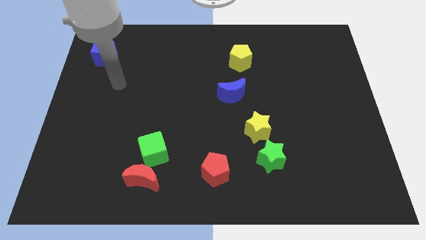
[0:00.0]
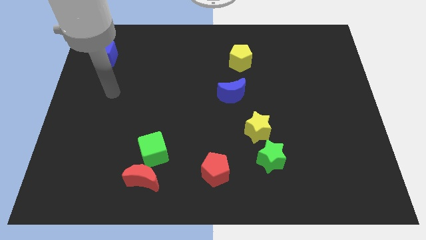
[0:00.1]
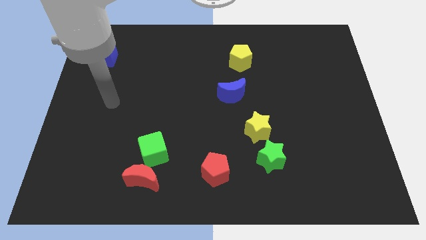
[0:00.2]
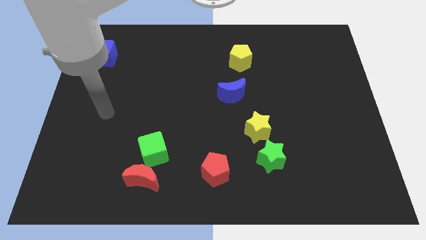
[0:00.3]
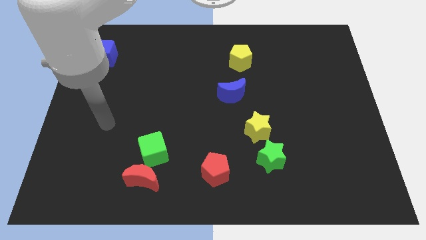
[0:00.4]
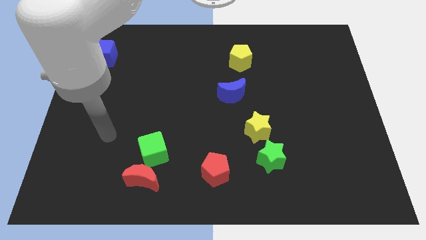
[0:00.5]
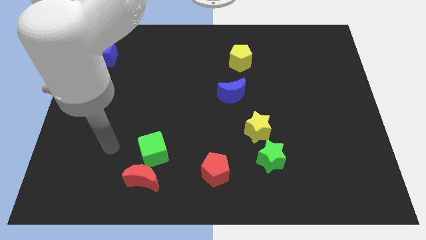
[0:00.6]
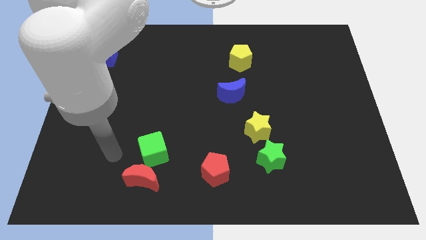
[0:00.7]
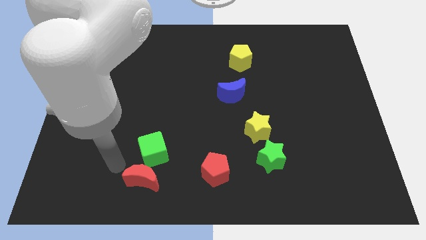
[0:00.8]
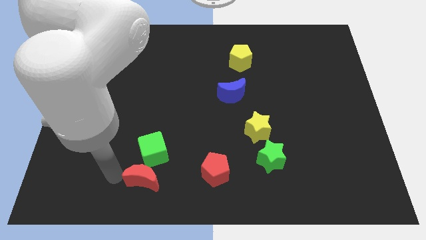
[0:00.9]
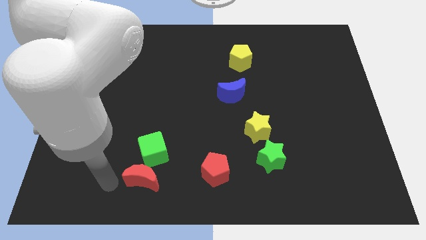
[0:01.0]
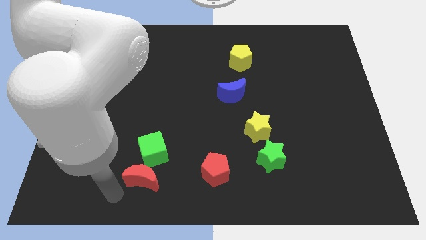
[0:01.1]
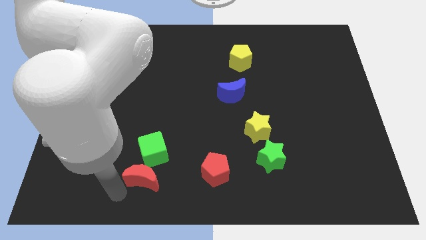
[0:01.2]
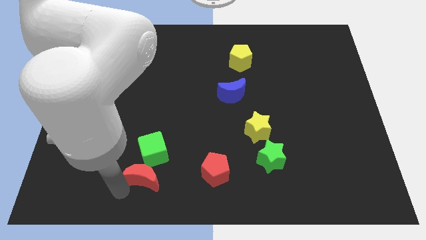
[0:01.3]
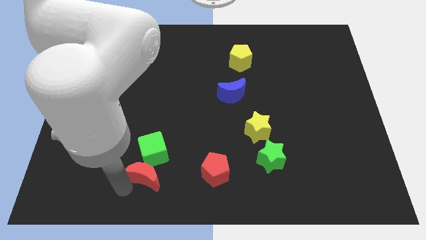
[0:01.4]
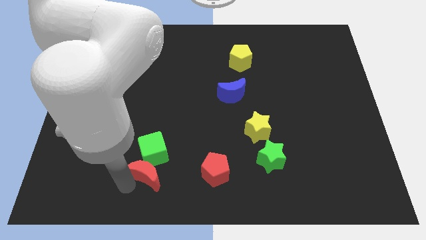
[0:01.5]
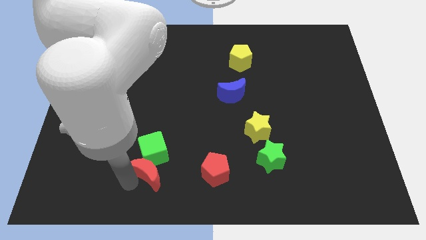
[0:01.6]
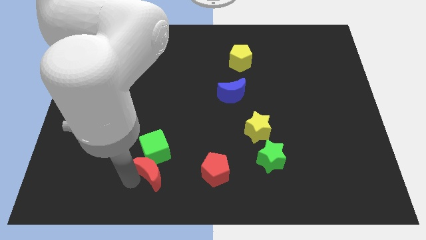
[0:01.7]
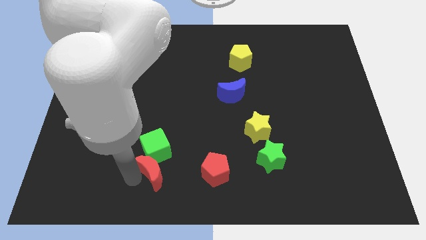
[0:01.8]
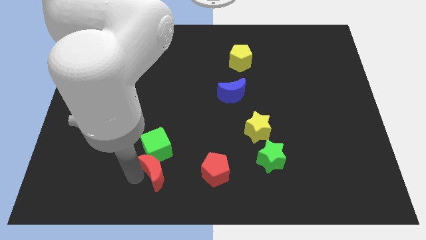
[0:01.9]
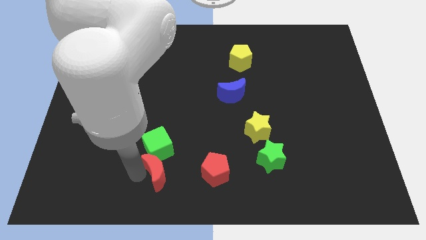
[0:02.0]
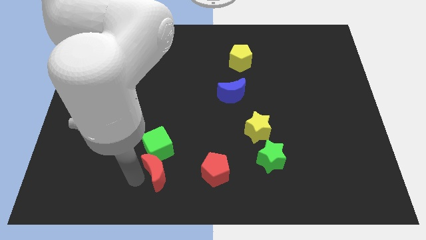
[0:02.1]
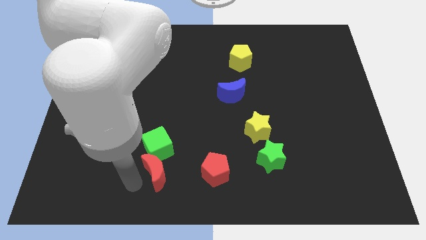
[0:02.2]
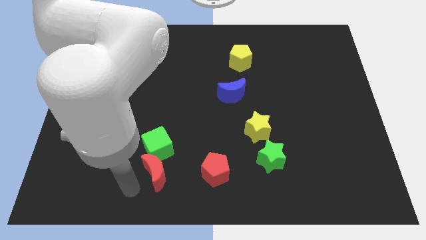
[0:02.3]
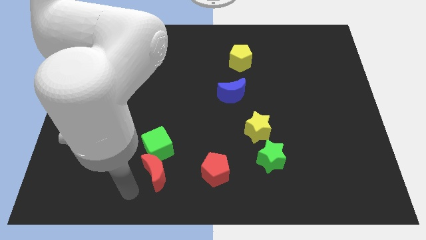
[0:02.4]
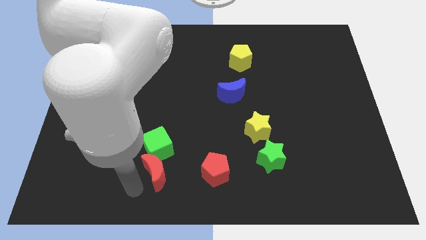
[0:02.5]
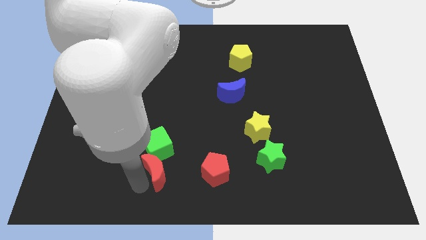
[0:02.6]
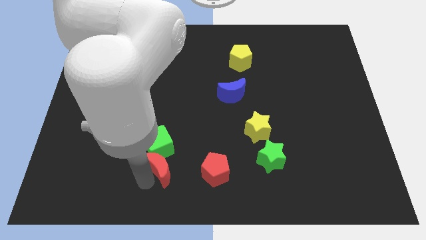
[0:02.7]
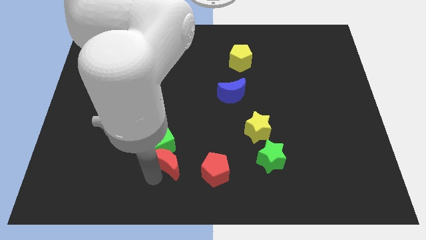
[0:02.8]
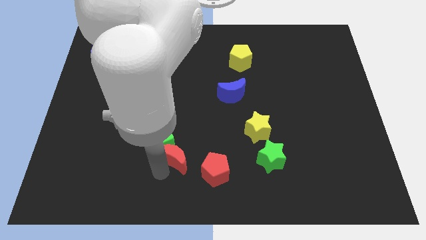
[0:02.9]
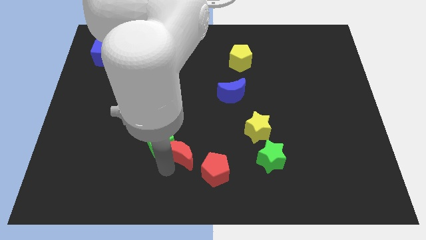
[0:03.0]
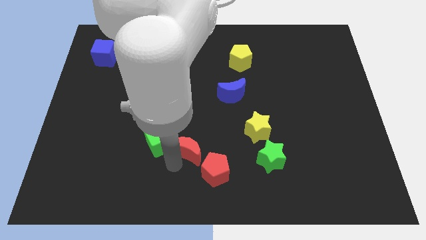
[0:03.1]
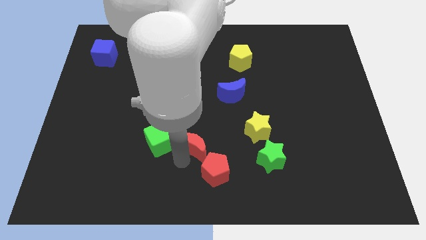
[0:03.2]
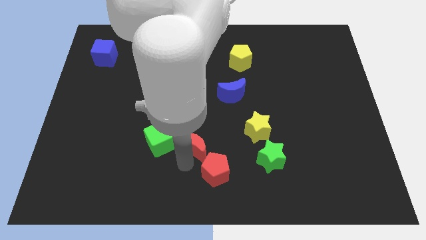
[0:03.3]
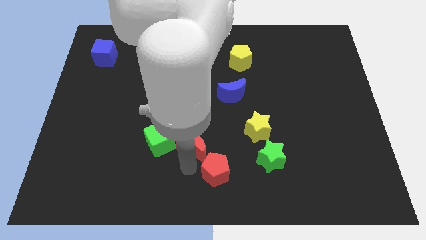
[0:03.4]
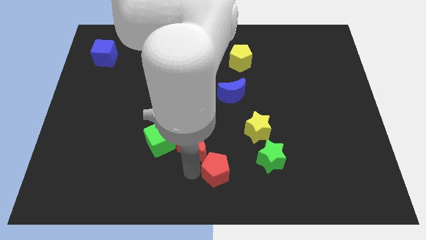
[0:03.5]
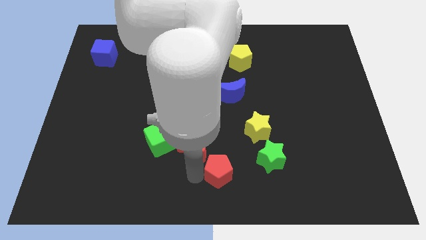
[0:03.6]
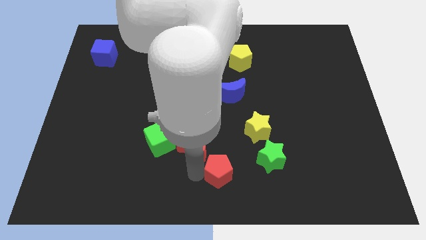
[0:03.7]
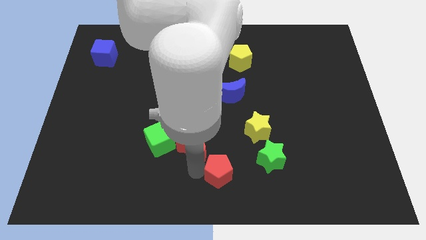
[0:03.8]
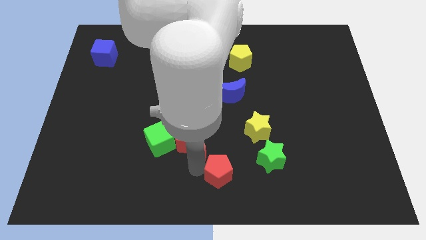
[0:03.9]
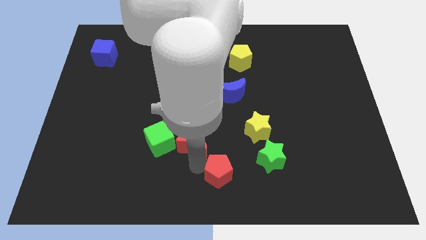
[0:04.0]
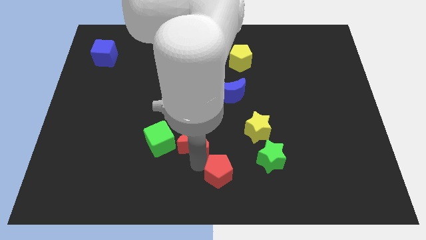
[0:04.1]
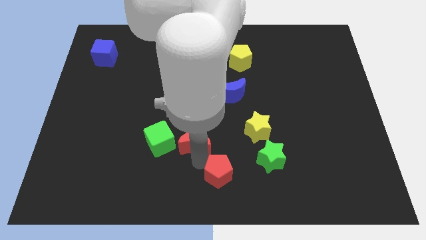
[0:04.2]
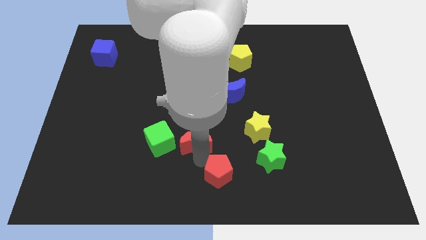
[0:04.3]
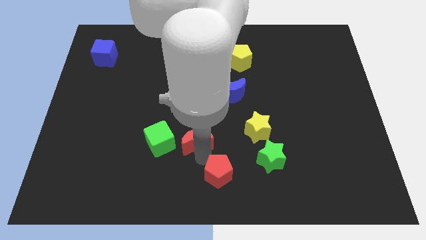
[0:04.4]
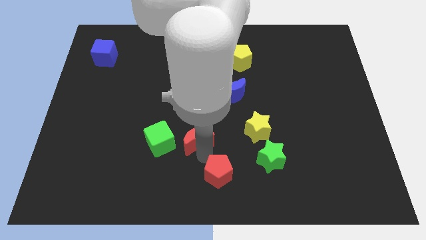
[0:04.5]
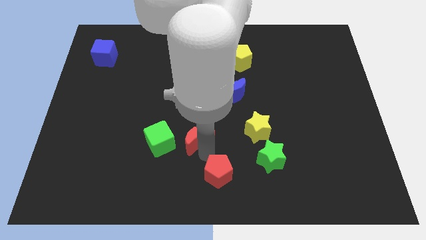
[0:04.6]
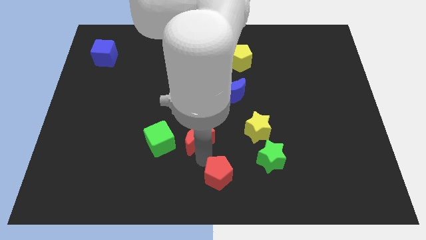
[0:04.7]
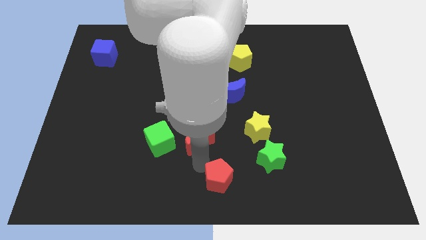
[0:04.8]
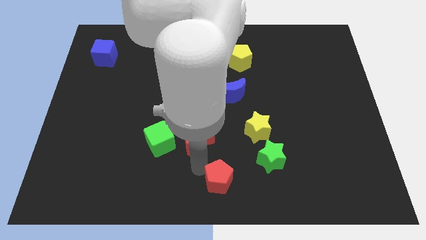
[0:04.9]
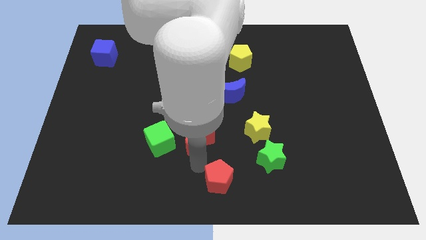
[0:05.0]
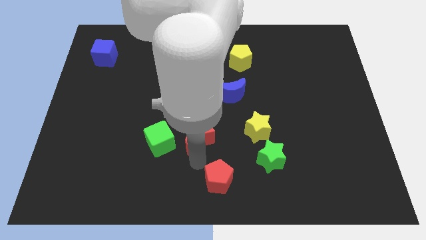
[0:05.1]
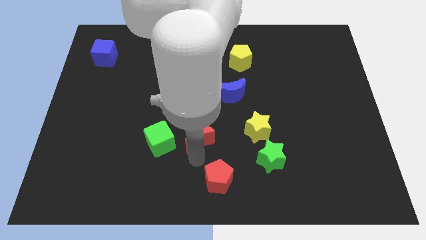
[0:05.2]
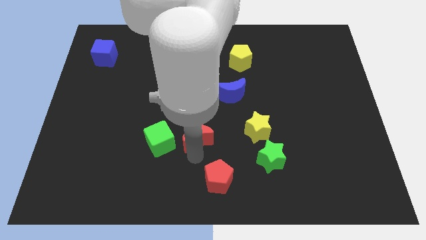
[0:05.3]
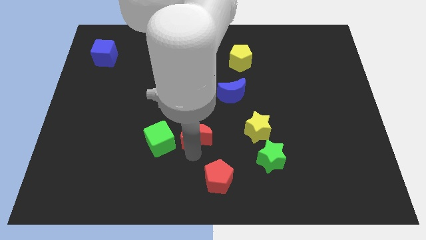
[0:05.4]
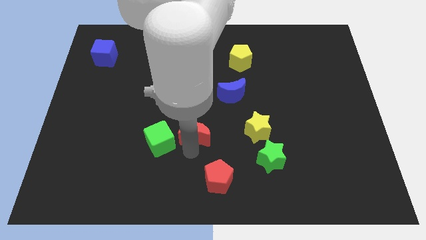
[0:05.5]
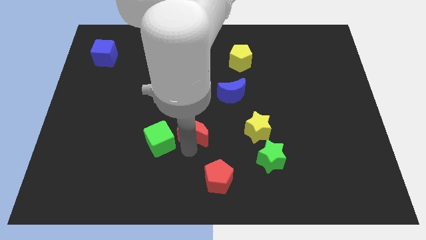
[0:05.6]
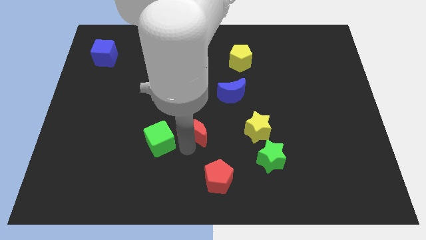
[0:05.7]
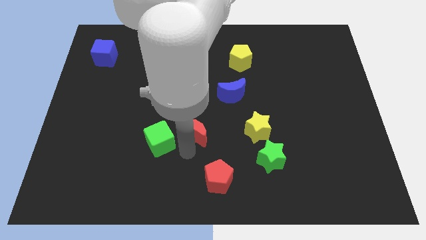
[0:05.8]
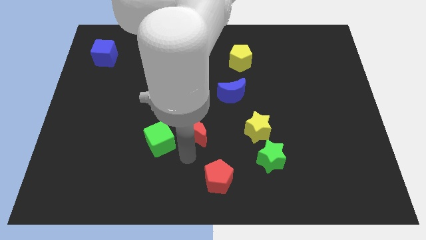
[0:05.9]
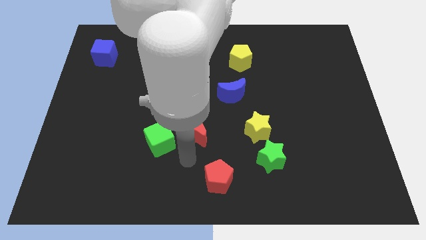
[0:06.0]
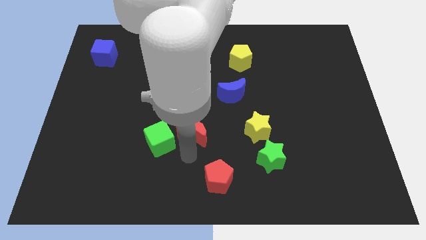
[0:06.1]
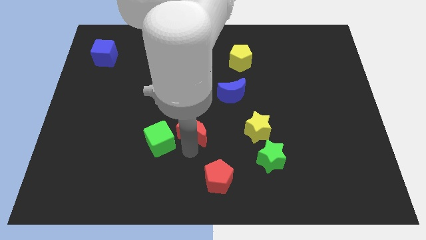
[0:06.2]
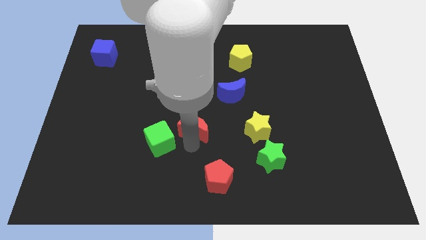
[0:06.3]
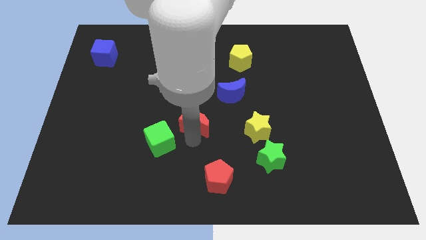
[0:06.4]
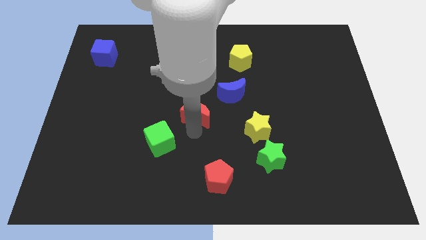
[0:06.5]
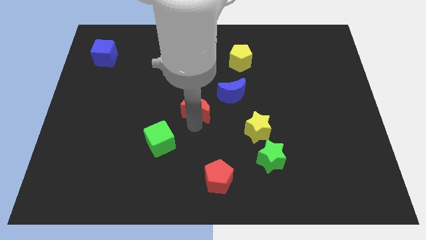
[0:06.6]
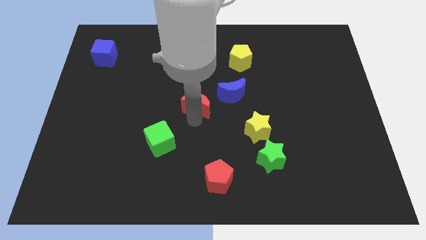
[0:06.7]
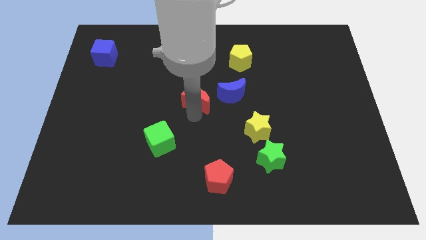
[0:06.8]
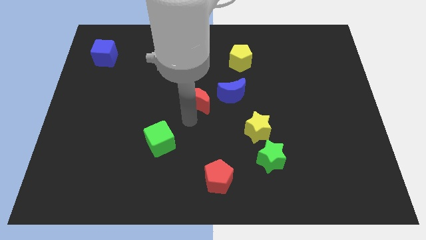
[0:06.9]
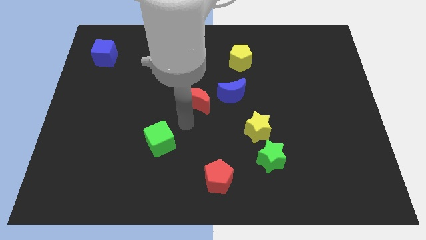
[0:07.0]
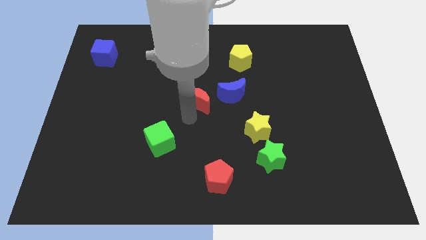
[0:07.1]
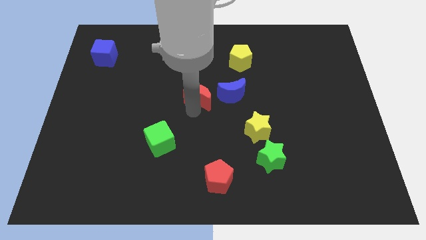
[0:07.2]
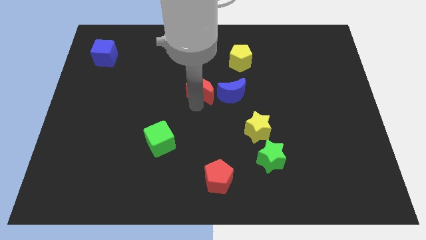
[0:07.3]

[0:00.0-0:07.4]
slide the red moon to the top left of the blue moon
